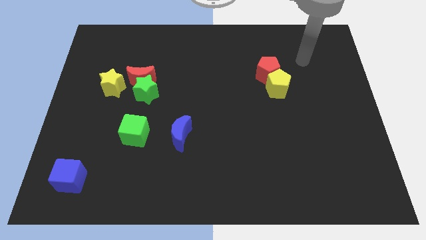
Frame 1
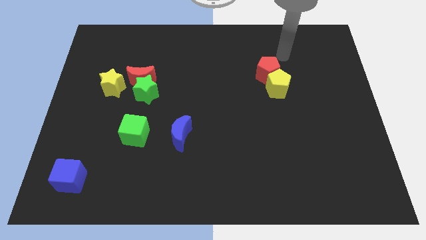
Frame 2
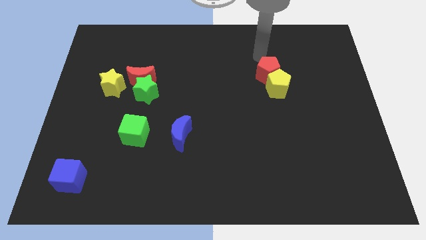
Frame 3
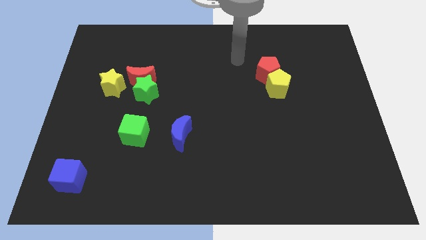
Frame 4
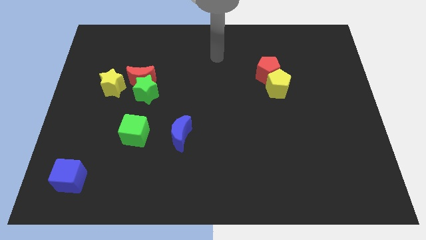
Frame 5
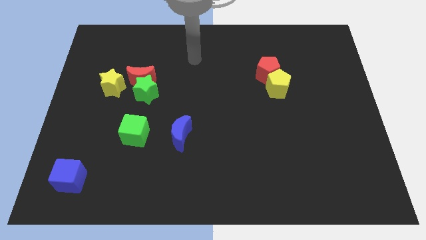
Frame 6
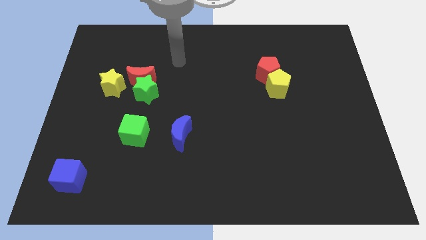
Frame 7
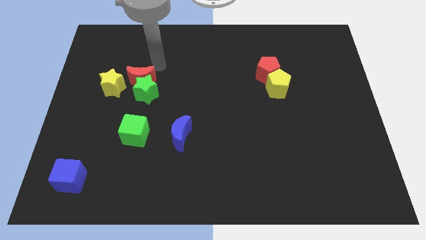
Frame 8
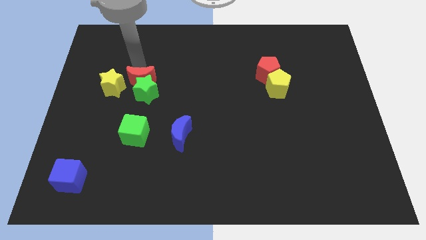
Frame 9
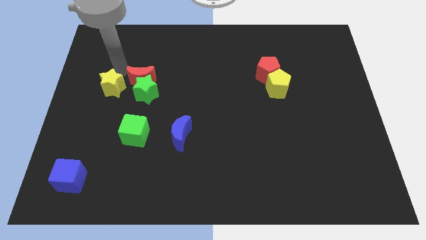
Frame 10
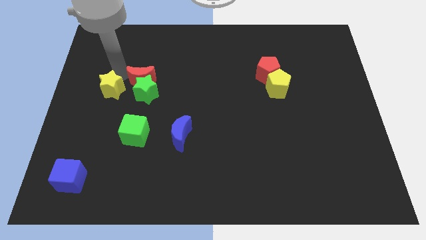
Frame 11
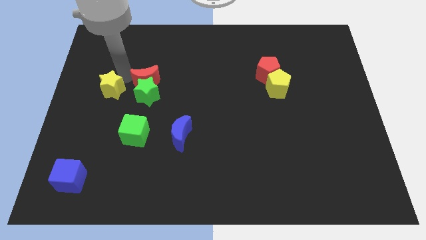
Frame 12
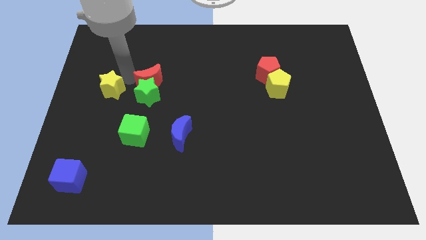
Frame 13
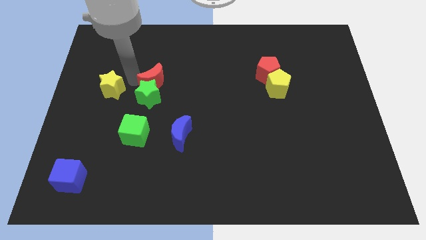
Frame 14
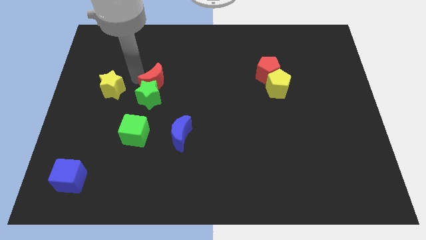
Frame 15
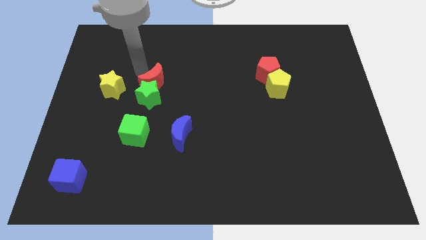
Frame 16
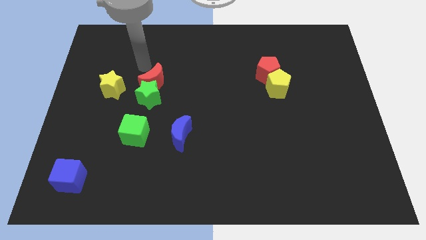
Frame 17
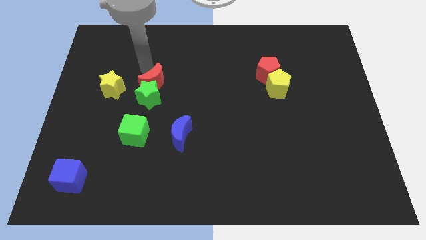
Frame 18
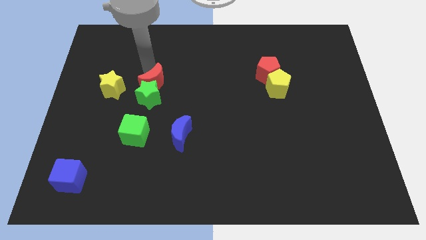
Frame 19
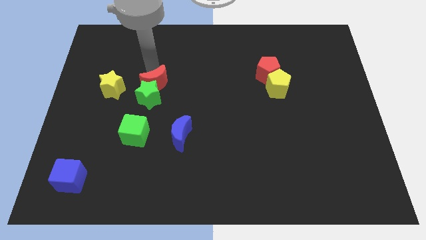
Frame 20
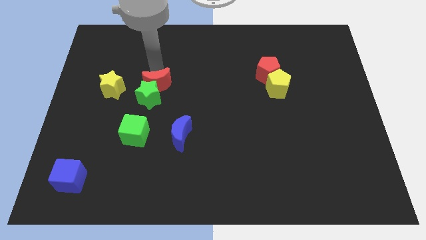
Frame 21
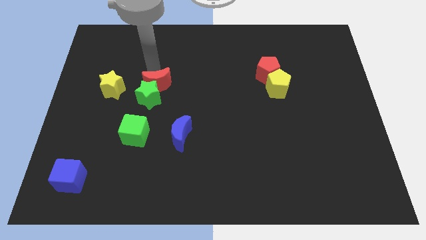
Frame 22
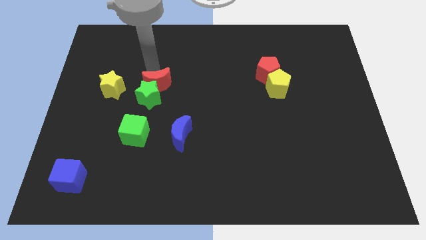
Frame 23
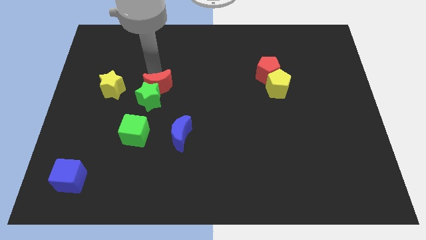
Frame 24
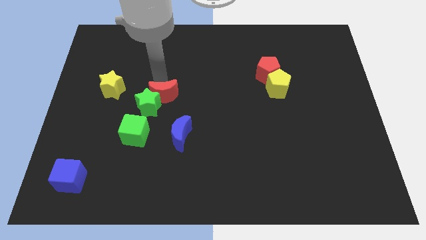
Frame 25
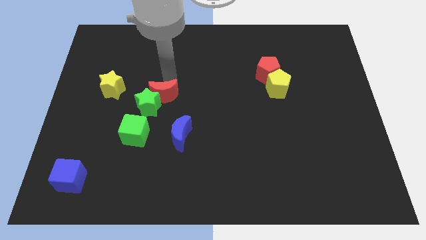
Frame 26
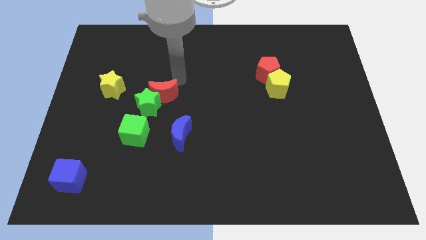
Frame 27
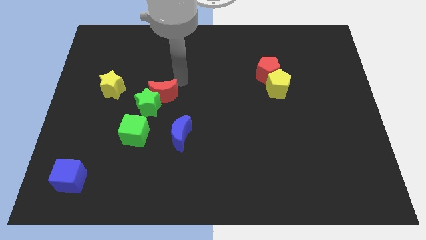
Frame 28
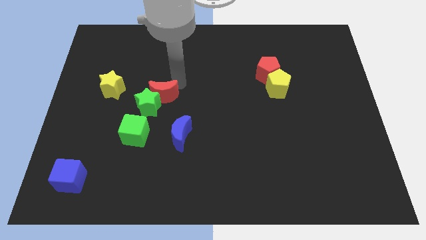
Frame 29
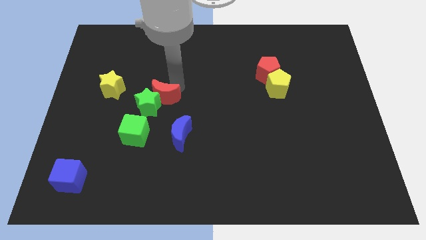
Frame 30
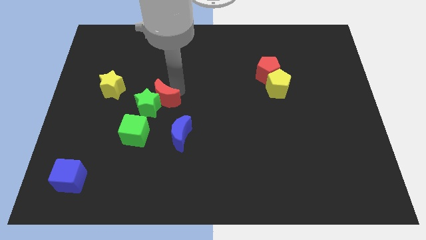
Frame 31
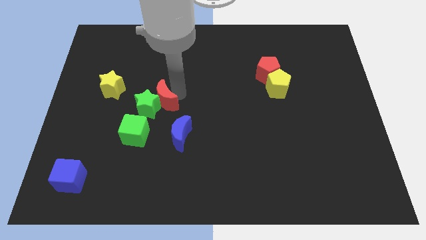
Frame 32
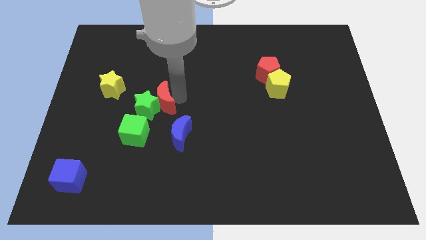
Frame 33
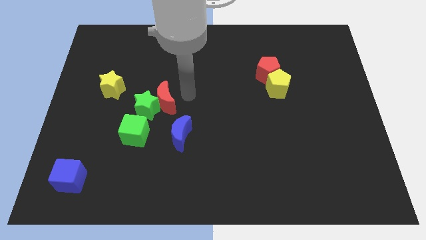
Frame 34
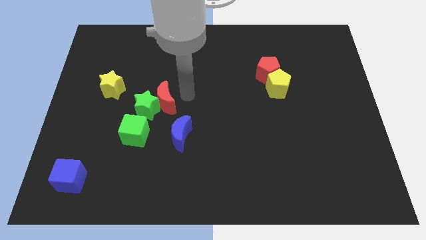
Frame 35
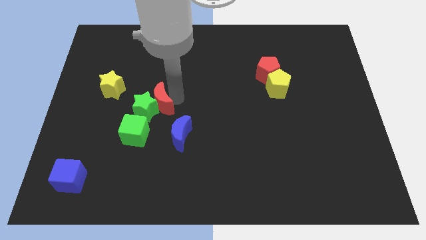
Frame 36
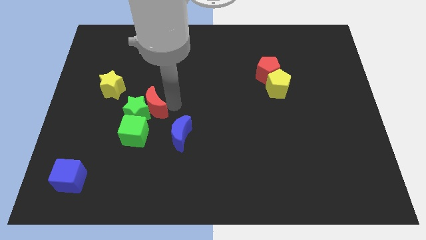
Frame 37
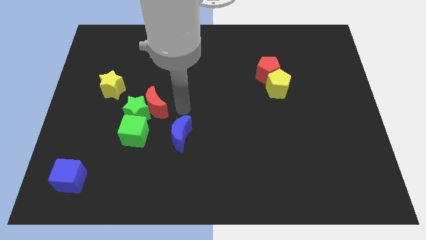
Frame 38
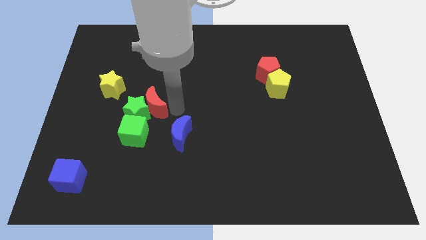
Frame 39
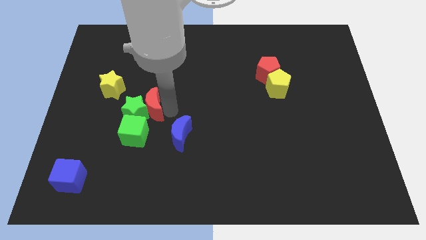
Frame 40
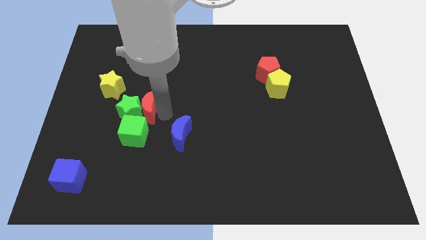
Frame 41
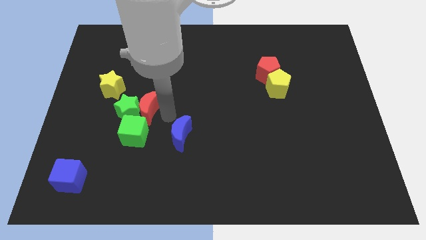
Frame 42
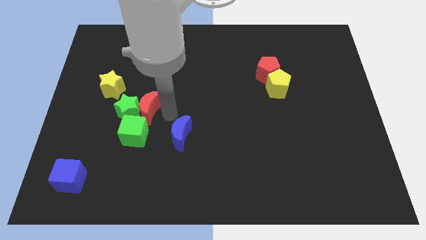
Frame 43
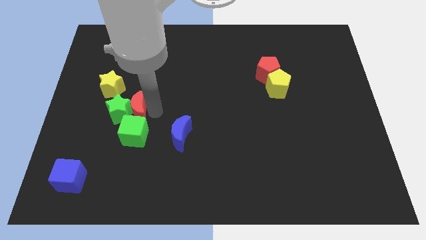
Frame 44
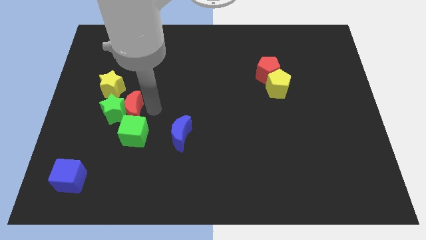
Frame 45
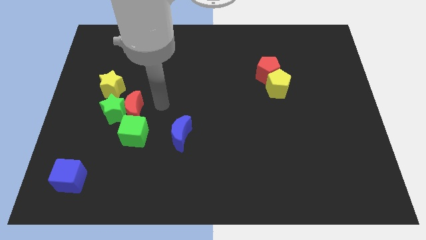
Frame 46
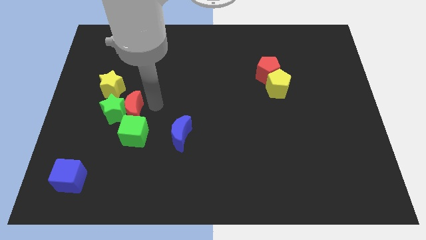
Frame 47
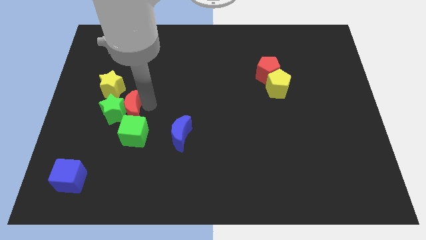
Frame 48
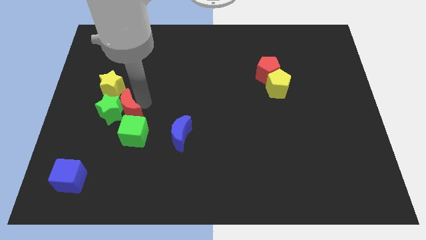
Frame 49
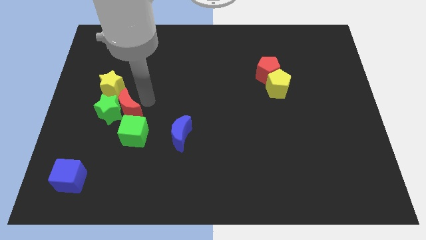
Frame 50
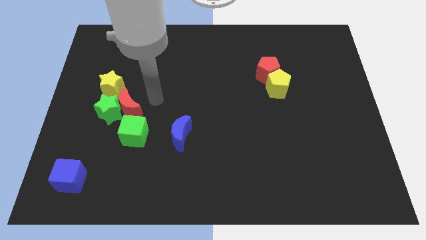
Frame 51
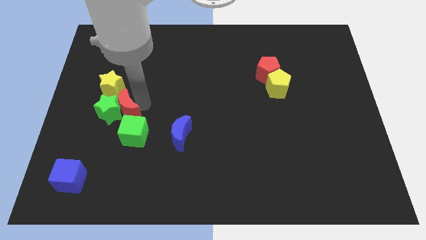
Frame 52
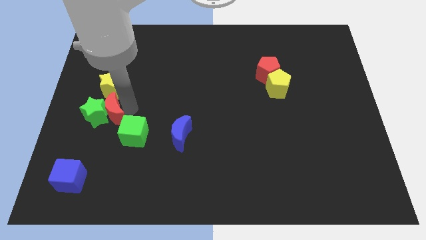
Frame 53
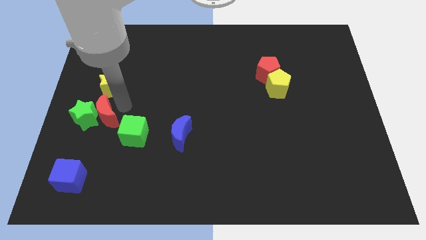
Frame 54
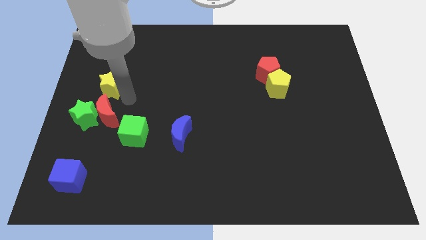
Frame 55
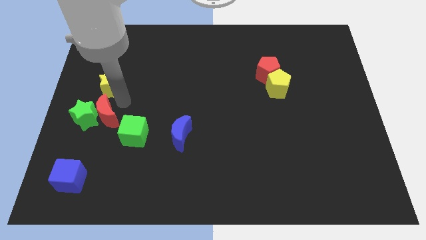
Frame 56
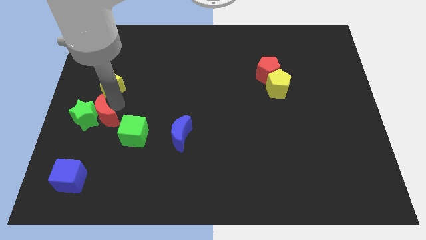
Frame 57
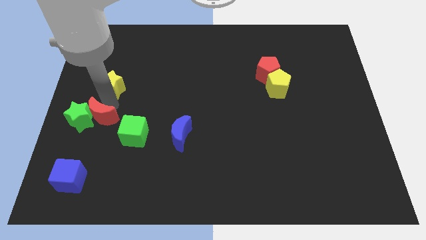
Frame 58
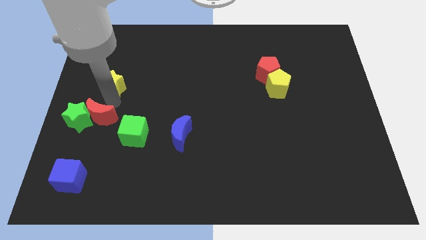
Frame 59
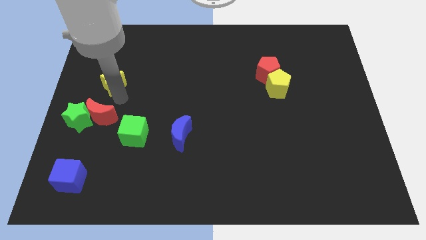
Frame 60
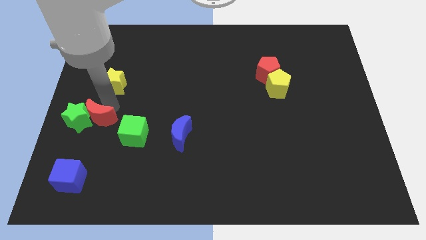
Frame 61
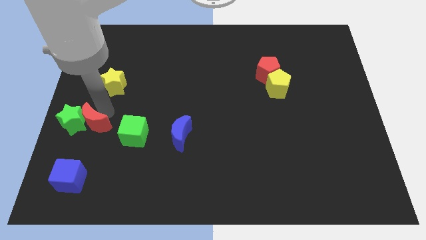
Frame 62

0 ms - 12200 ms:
put the red moon to the top side of the blue cube

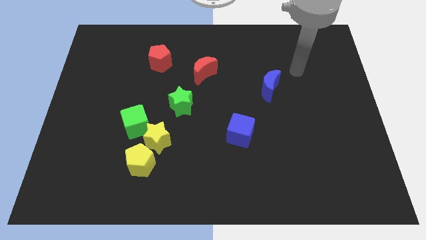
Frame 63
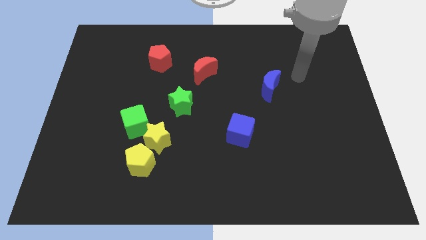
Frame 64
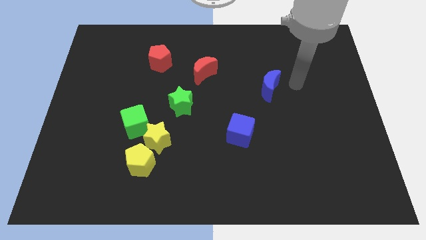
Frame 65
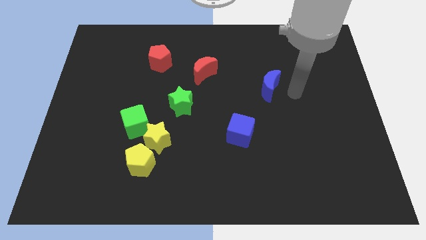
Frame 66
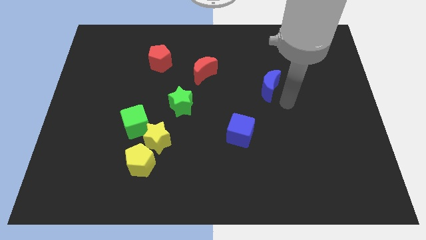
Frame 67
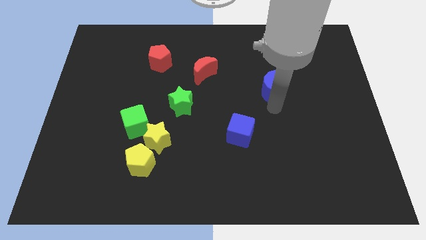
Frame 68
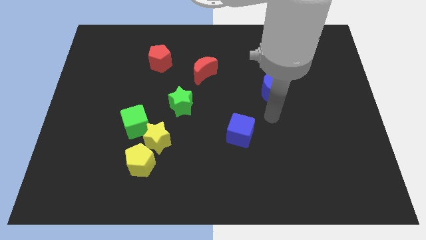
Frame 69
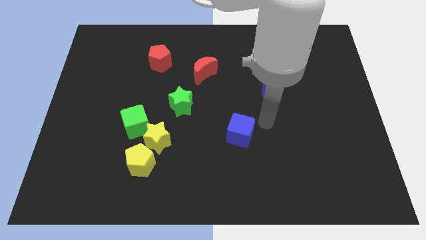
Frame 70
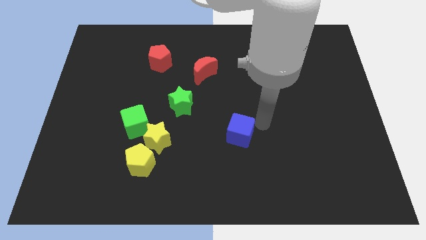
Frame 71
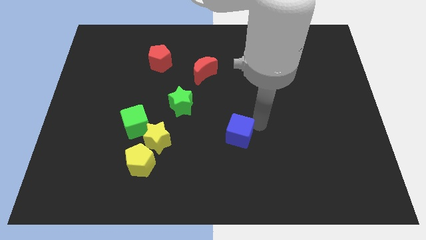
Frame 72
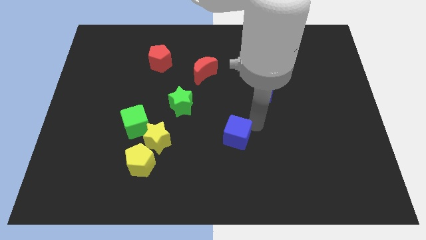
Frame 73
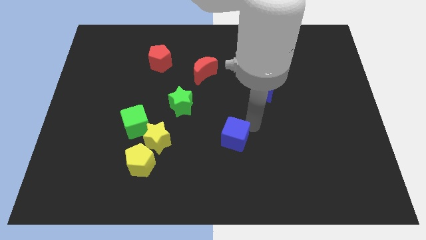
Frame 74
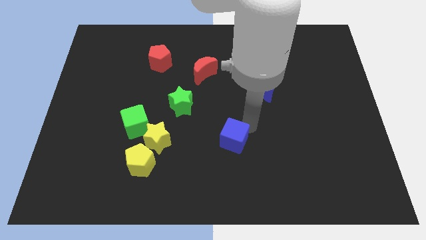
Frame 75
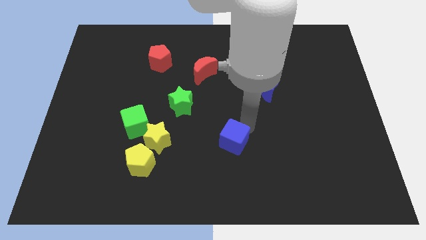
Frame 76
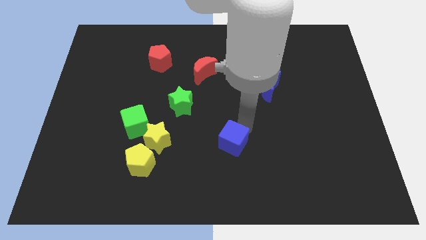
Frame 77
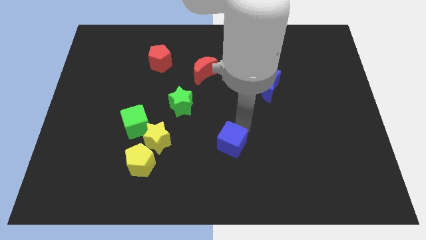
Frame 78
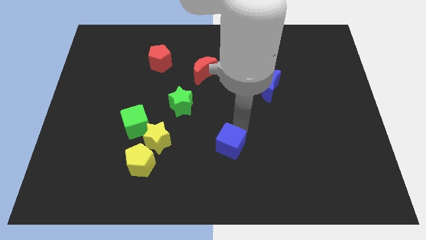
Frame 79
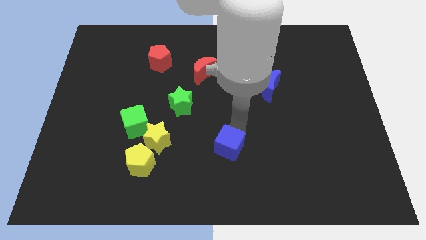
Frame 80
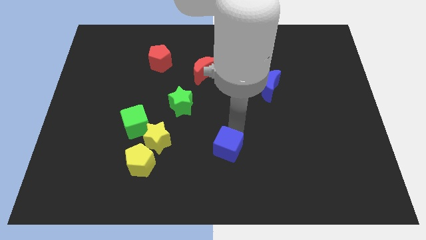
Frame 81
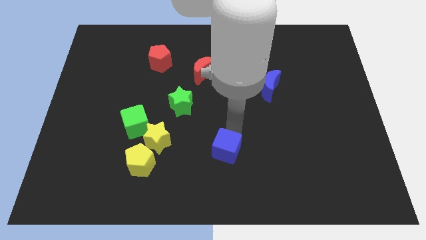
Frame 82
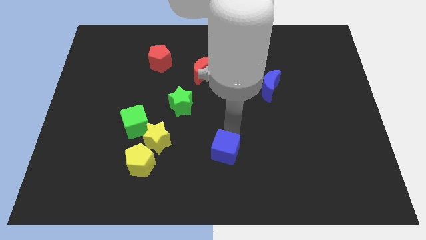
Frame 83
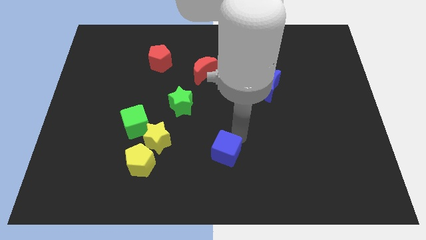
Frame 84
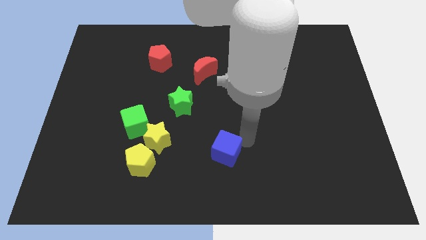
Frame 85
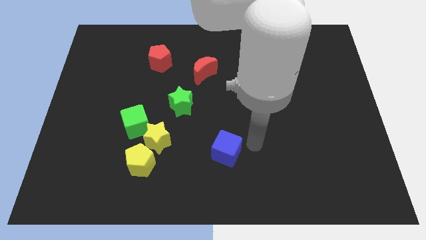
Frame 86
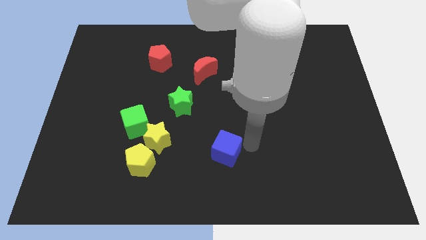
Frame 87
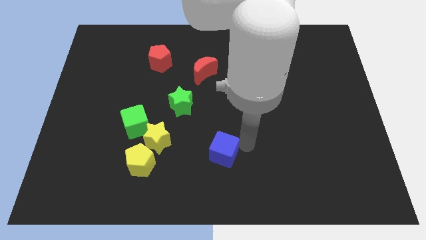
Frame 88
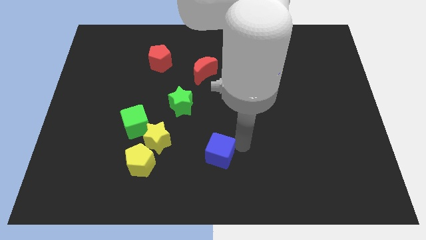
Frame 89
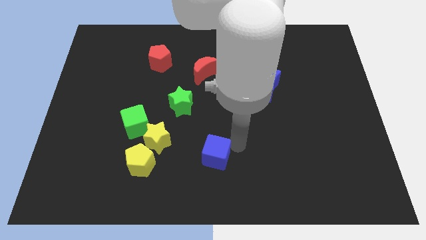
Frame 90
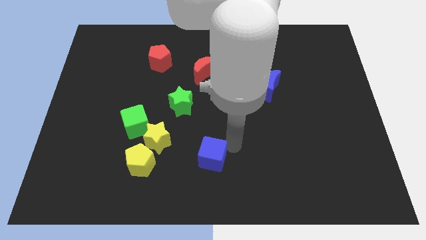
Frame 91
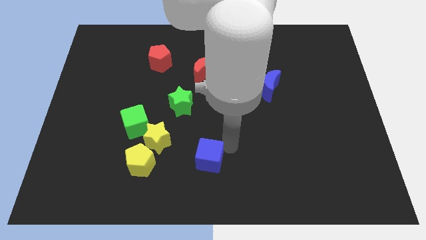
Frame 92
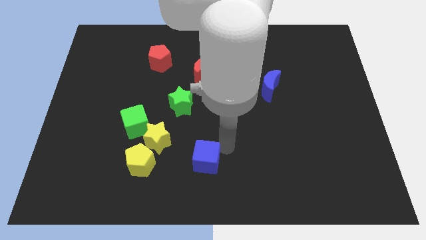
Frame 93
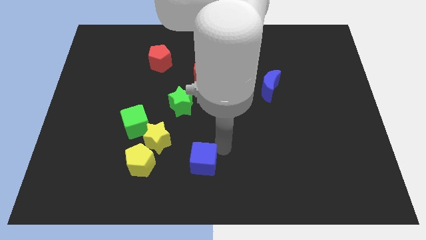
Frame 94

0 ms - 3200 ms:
slide the blue cube to the bottom right of the yellow star
